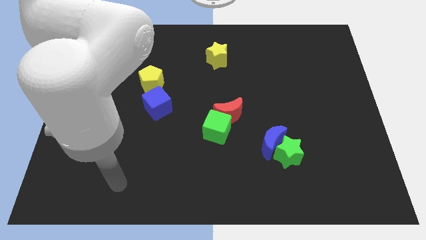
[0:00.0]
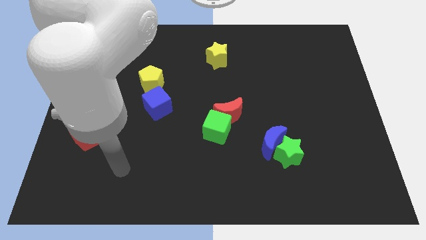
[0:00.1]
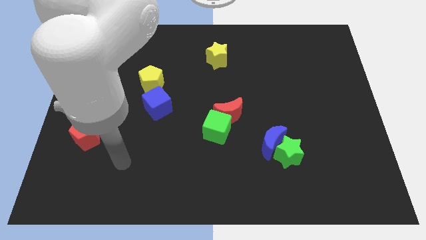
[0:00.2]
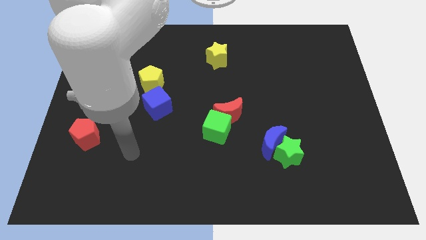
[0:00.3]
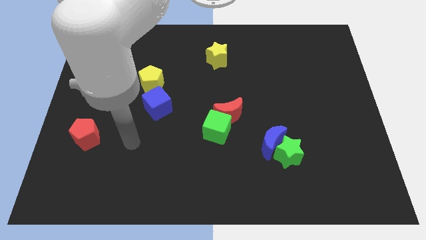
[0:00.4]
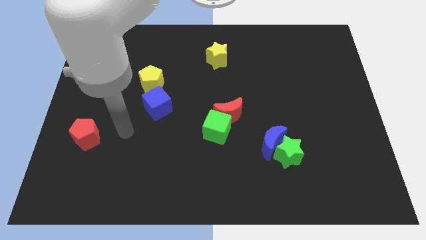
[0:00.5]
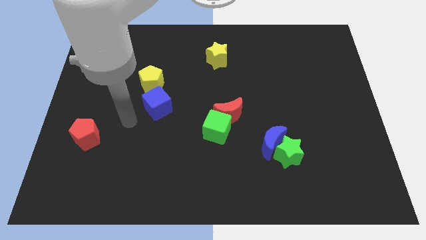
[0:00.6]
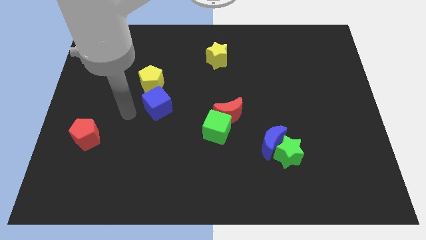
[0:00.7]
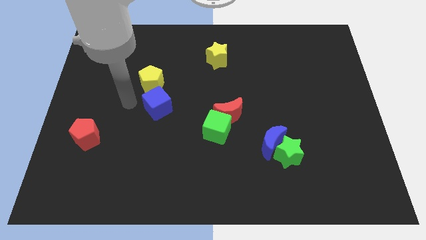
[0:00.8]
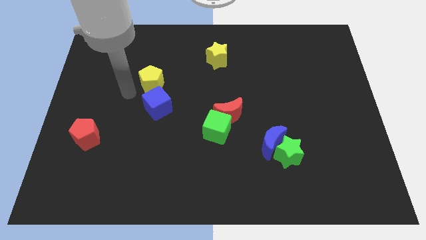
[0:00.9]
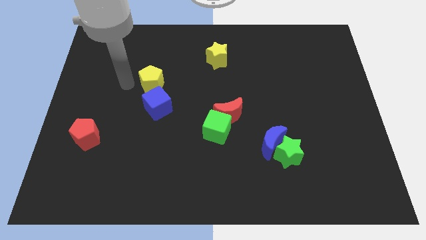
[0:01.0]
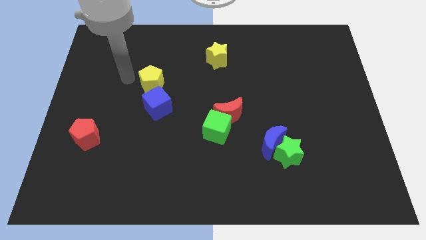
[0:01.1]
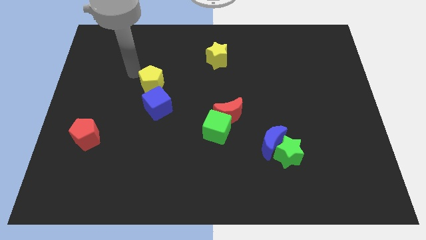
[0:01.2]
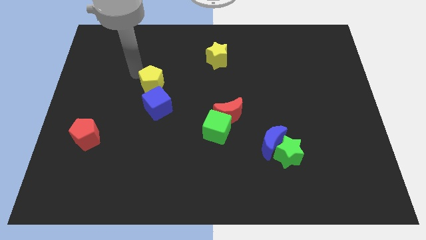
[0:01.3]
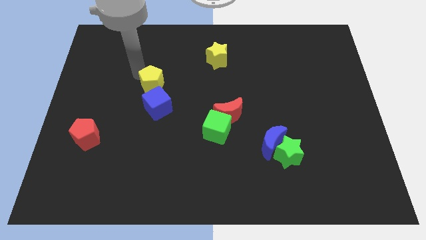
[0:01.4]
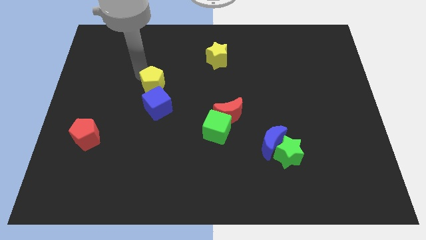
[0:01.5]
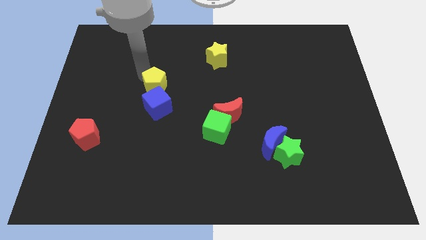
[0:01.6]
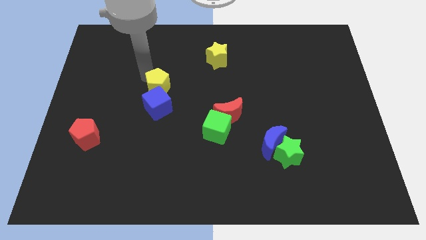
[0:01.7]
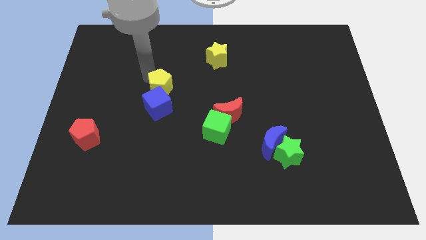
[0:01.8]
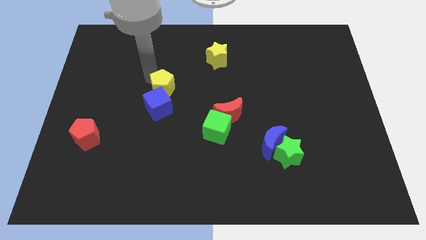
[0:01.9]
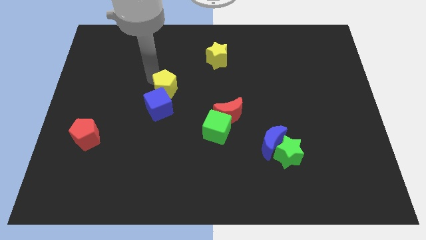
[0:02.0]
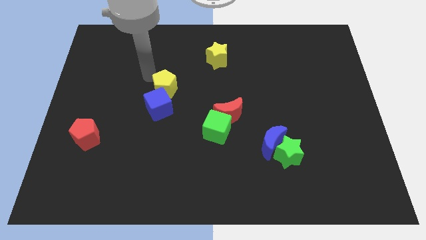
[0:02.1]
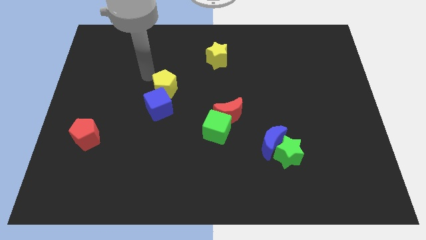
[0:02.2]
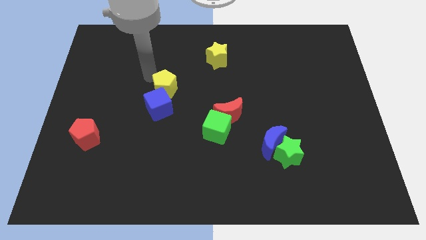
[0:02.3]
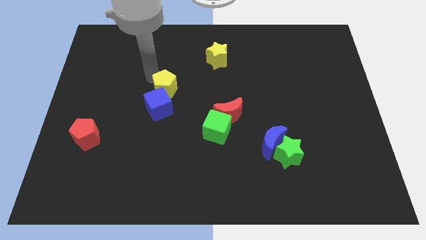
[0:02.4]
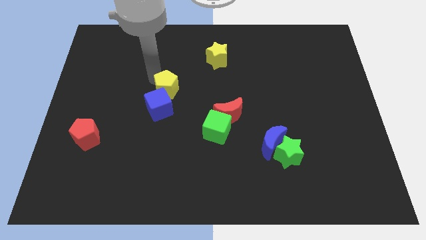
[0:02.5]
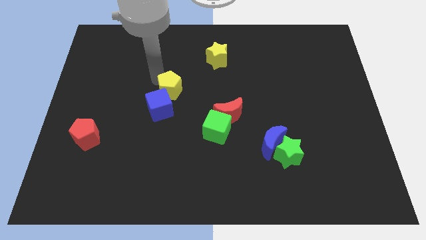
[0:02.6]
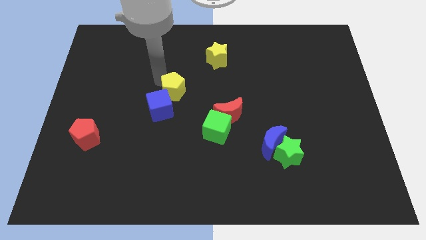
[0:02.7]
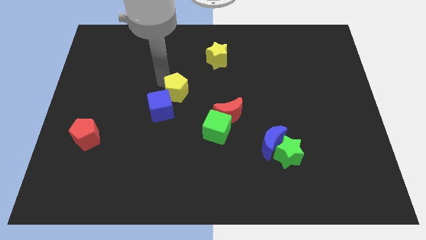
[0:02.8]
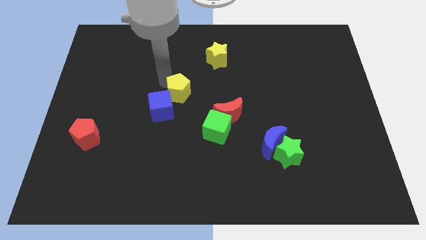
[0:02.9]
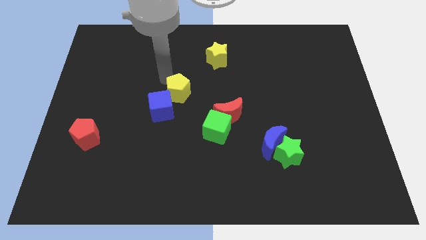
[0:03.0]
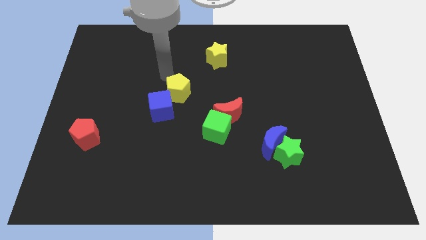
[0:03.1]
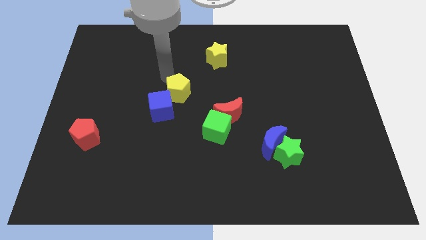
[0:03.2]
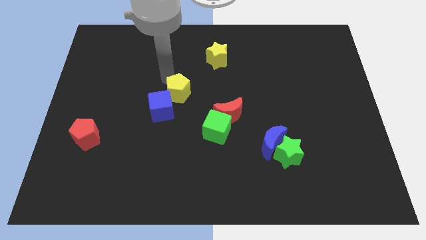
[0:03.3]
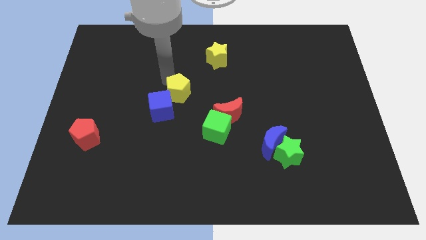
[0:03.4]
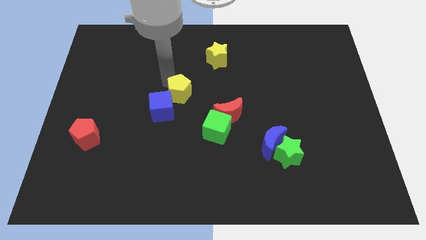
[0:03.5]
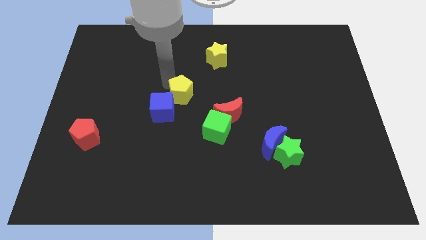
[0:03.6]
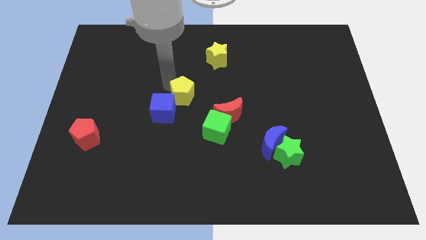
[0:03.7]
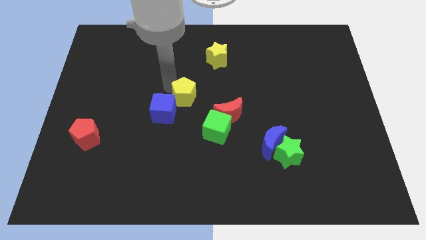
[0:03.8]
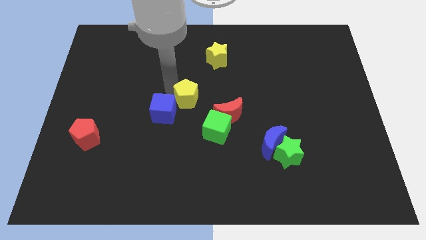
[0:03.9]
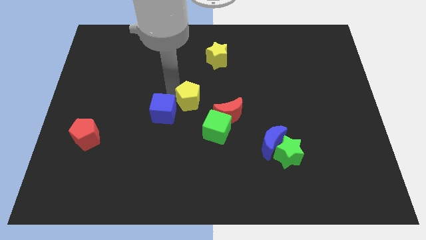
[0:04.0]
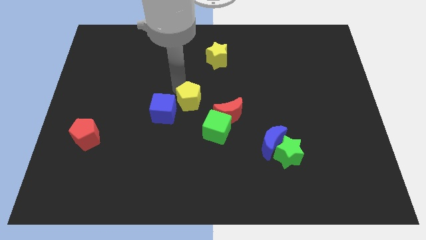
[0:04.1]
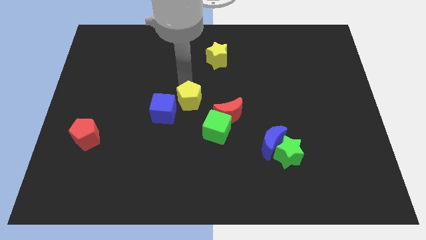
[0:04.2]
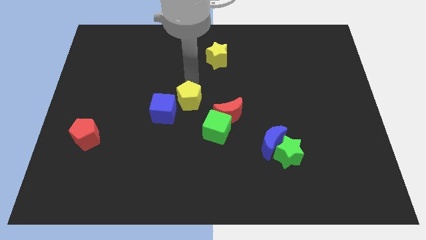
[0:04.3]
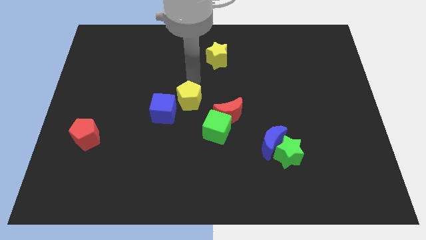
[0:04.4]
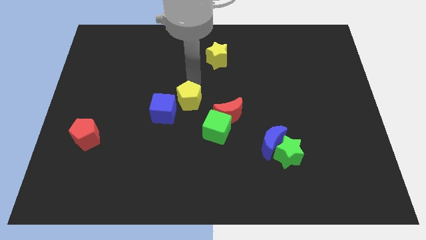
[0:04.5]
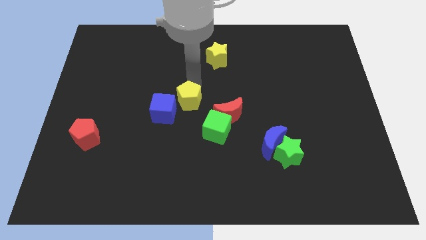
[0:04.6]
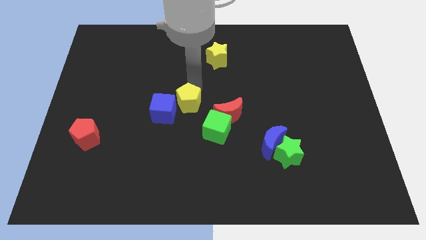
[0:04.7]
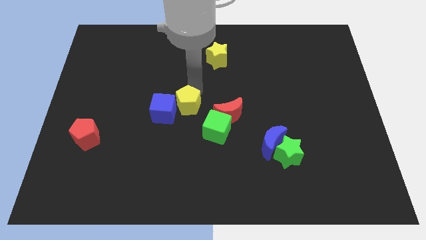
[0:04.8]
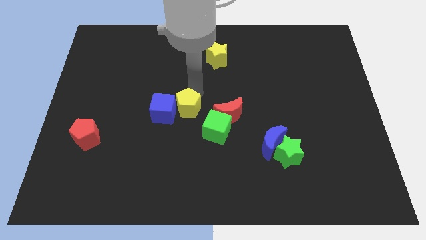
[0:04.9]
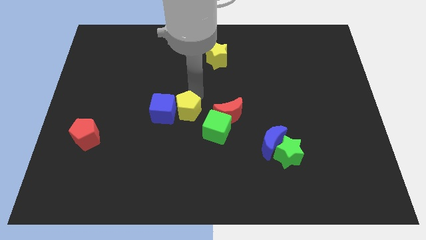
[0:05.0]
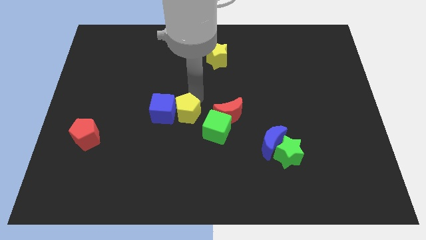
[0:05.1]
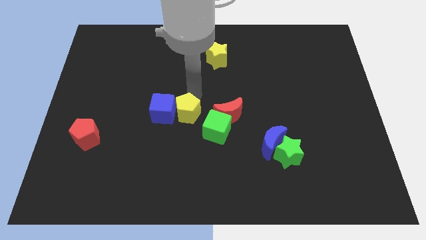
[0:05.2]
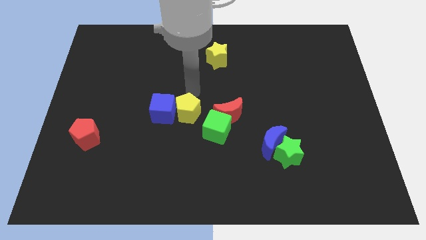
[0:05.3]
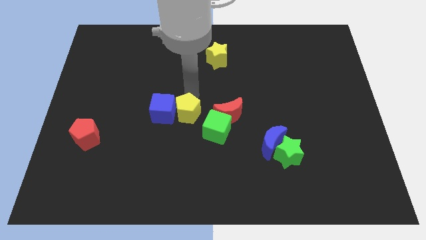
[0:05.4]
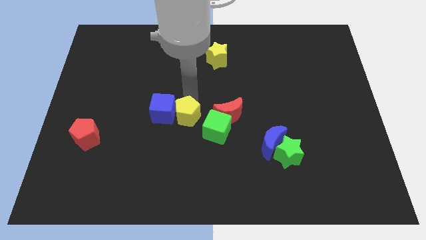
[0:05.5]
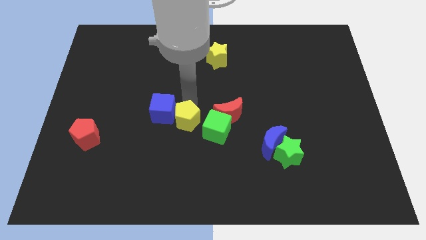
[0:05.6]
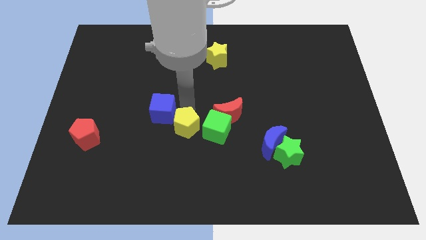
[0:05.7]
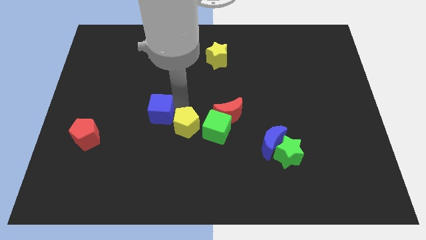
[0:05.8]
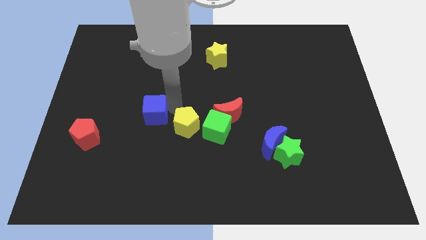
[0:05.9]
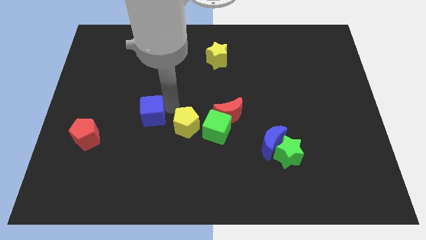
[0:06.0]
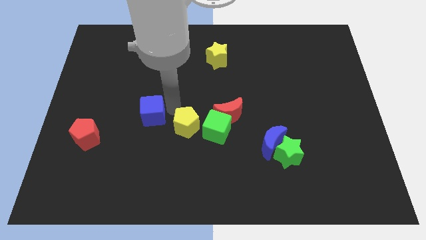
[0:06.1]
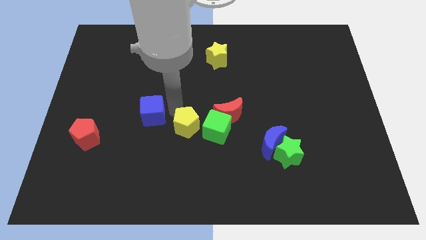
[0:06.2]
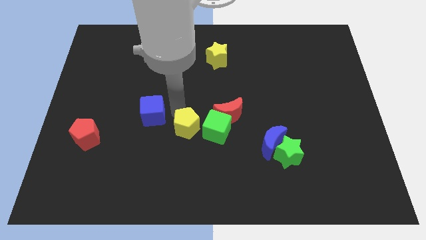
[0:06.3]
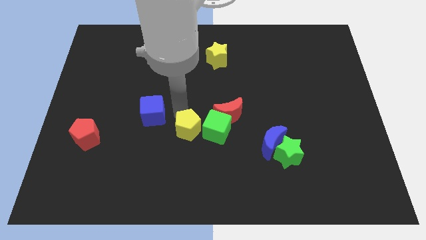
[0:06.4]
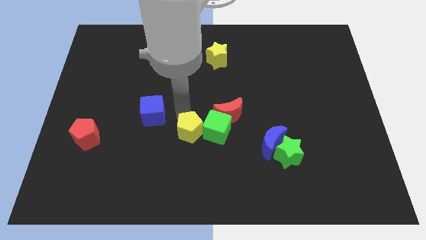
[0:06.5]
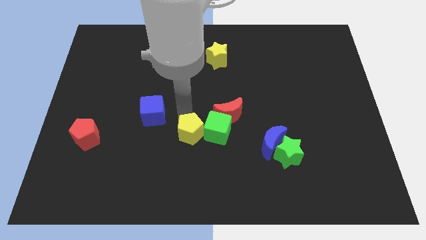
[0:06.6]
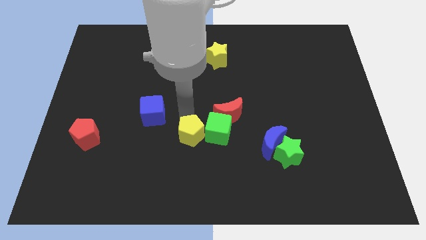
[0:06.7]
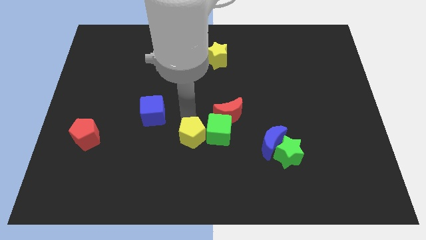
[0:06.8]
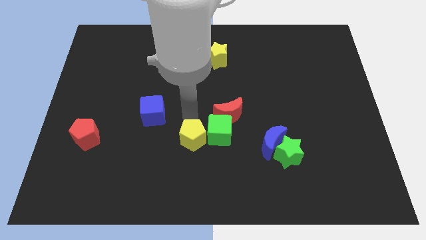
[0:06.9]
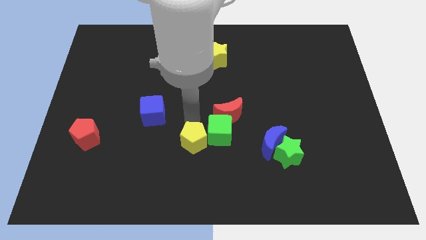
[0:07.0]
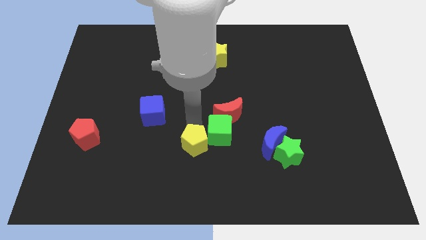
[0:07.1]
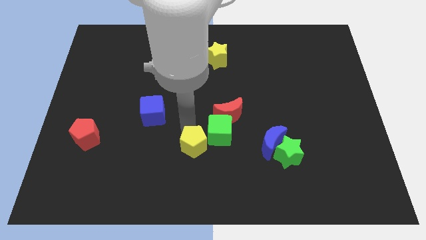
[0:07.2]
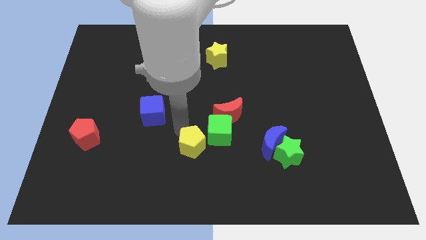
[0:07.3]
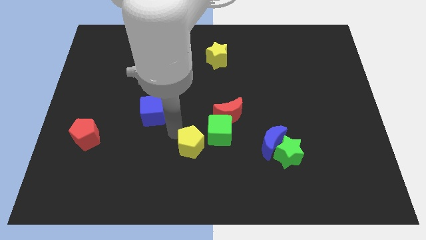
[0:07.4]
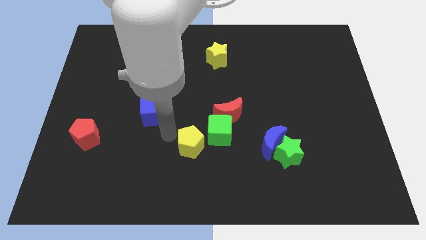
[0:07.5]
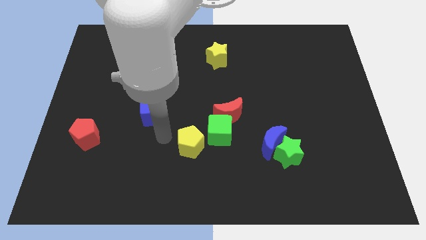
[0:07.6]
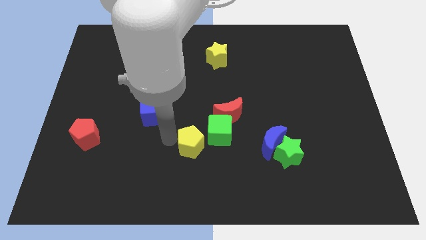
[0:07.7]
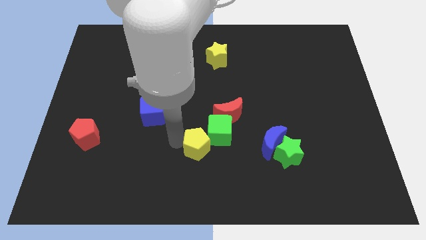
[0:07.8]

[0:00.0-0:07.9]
move the yellow pentagon downwards and then to the right
